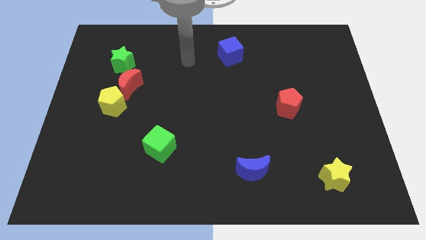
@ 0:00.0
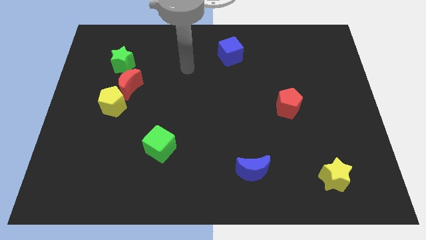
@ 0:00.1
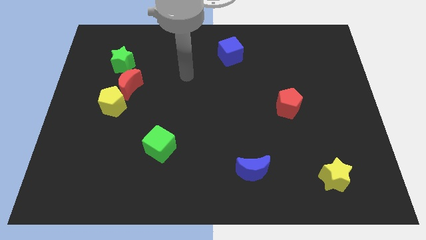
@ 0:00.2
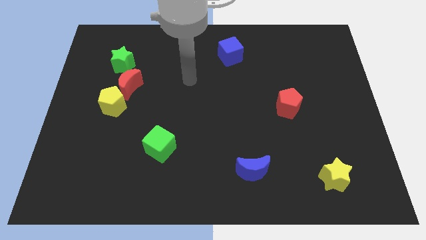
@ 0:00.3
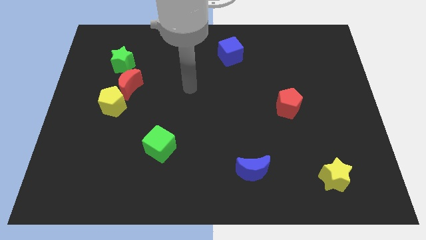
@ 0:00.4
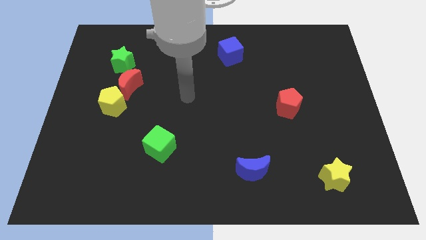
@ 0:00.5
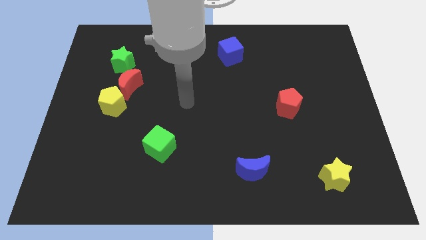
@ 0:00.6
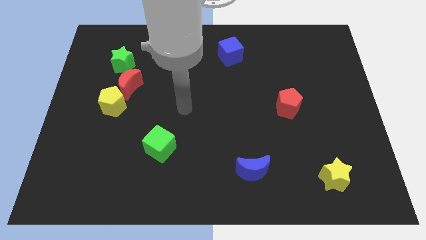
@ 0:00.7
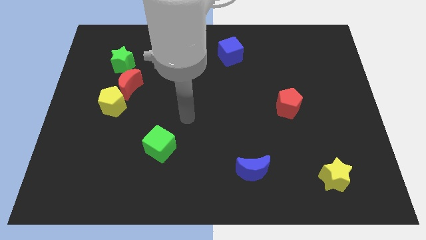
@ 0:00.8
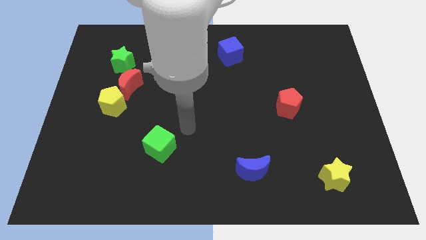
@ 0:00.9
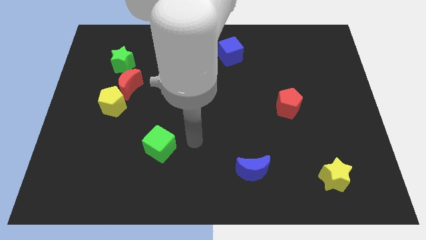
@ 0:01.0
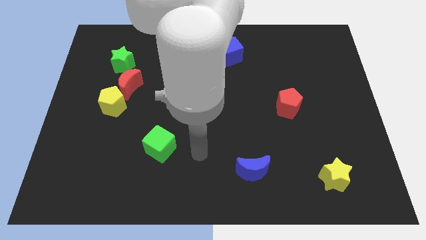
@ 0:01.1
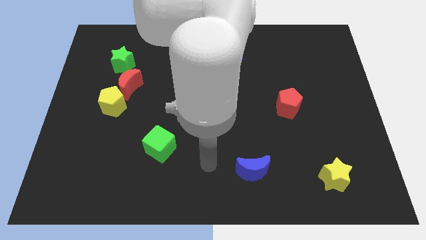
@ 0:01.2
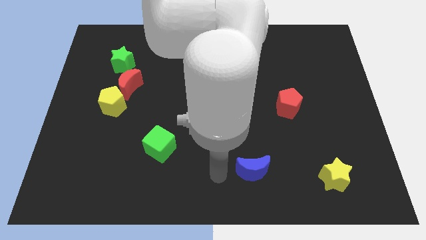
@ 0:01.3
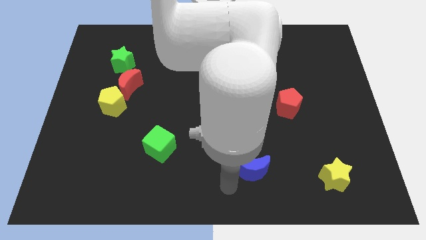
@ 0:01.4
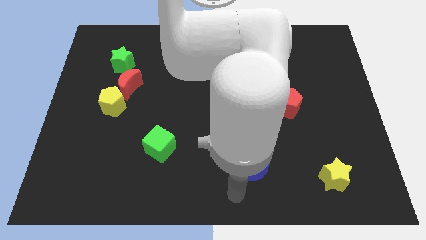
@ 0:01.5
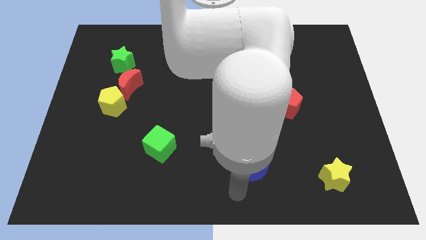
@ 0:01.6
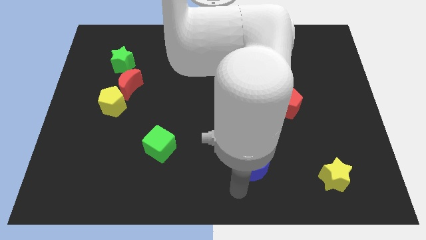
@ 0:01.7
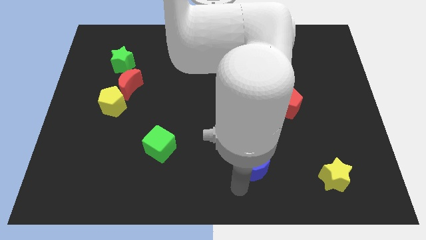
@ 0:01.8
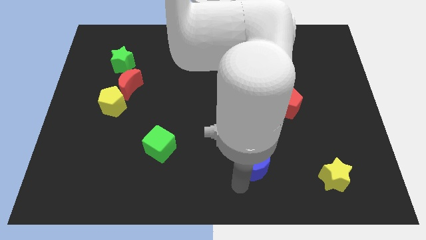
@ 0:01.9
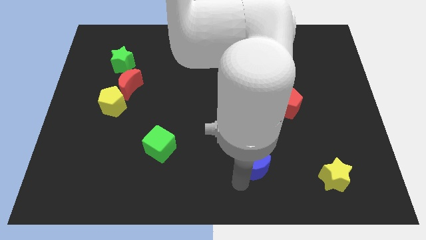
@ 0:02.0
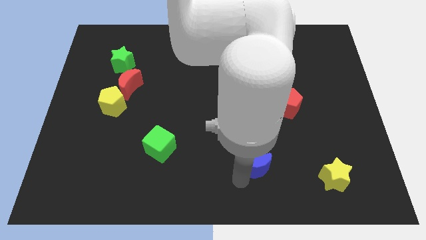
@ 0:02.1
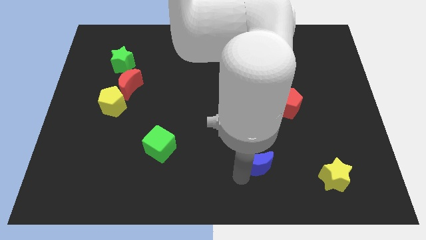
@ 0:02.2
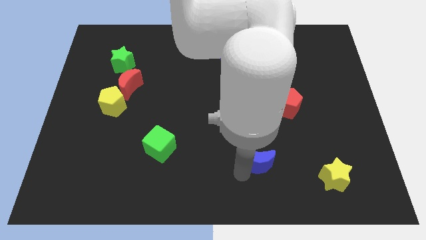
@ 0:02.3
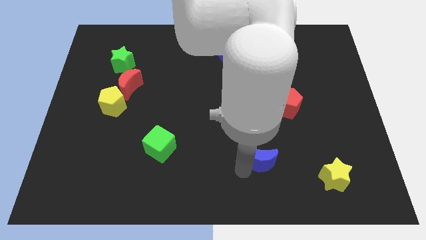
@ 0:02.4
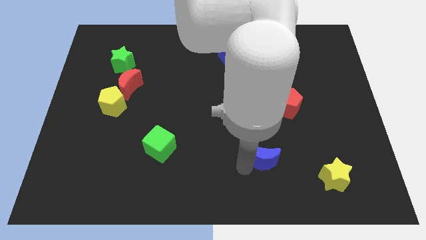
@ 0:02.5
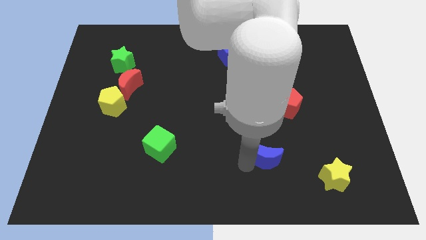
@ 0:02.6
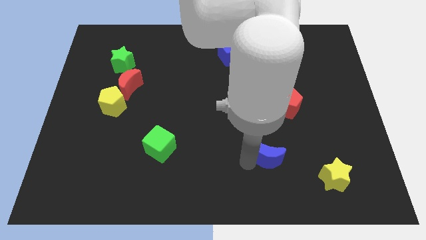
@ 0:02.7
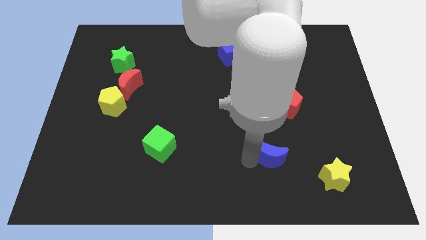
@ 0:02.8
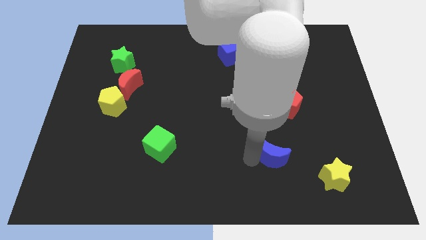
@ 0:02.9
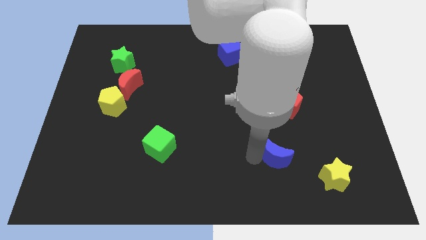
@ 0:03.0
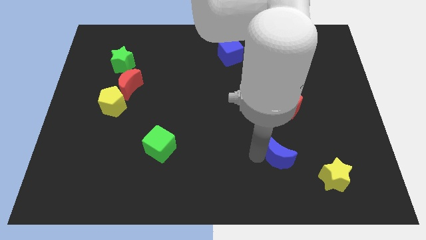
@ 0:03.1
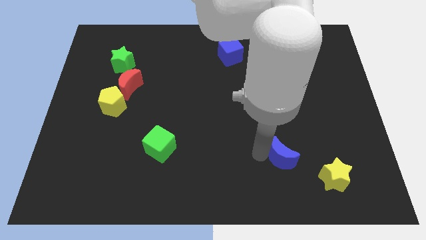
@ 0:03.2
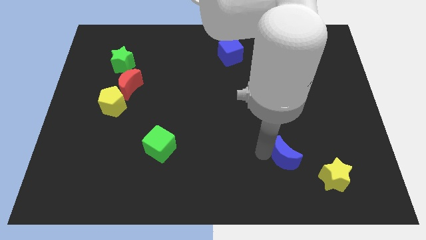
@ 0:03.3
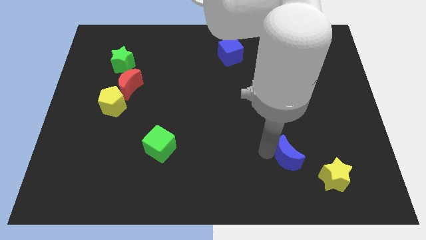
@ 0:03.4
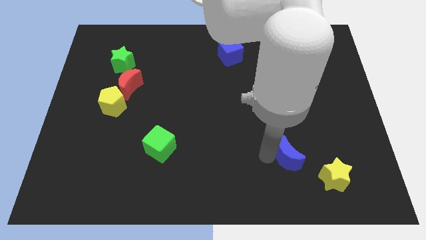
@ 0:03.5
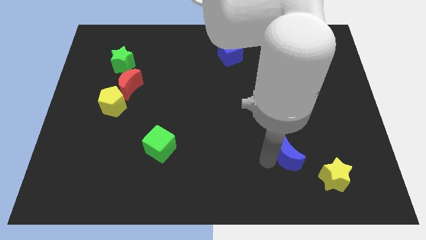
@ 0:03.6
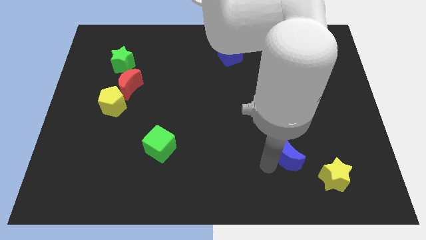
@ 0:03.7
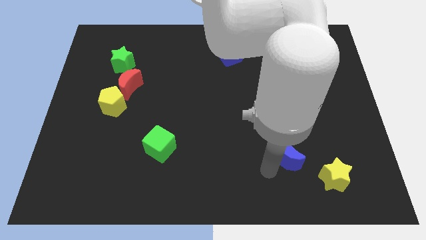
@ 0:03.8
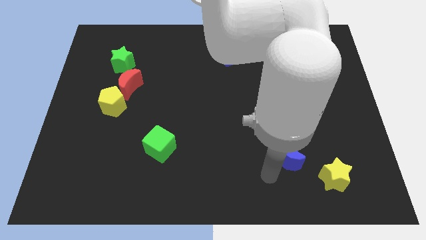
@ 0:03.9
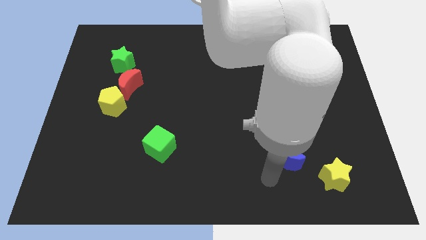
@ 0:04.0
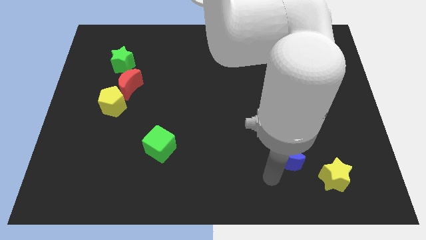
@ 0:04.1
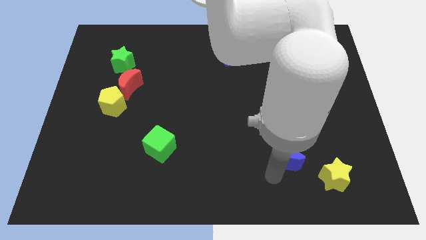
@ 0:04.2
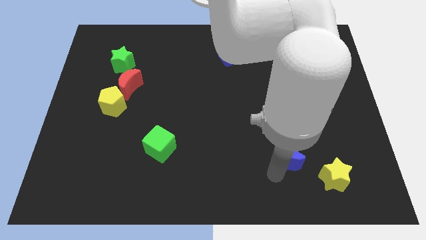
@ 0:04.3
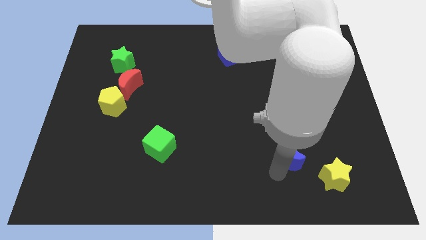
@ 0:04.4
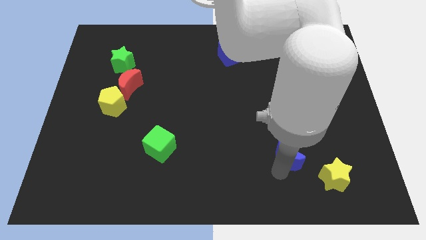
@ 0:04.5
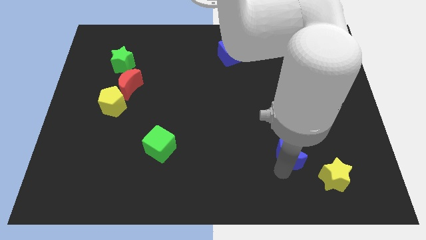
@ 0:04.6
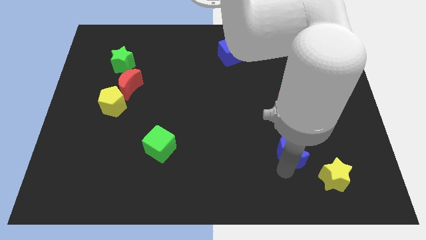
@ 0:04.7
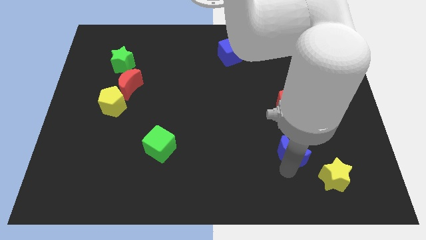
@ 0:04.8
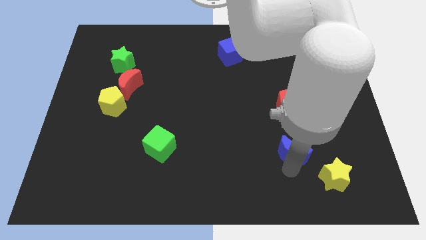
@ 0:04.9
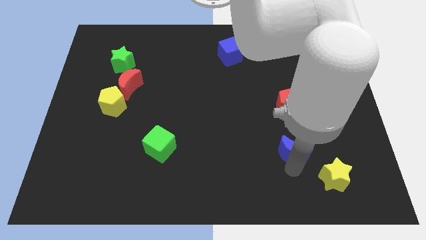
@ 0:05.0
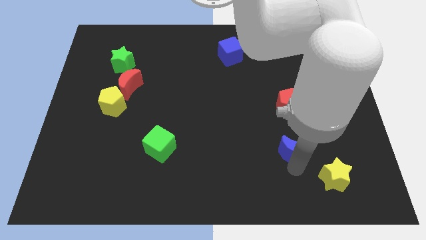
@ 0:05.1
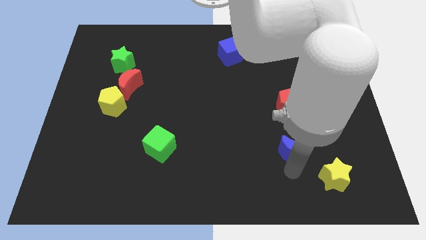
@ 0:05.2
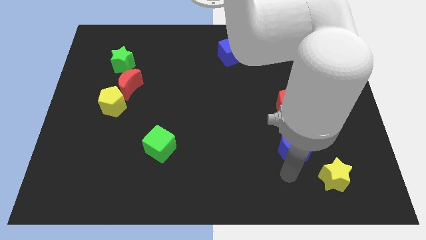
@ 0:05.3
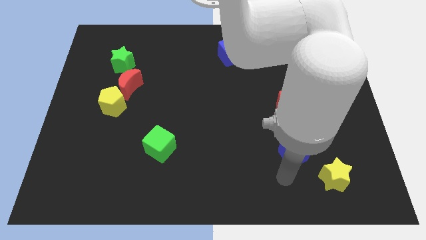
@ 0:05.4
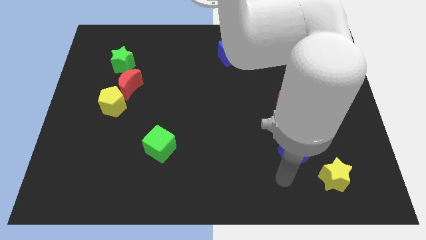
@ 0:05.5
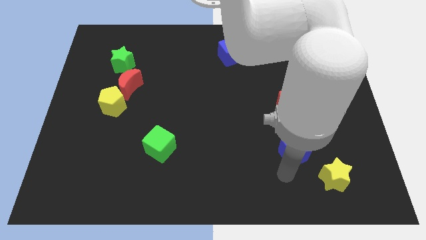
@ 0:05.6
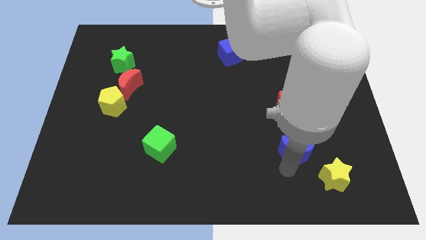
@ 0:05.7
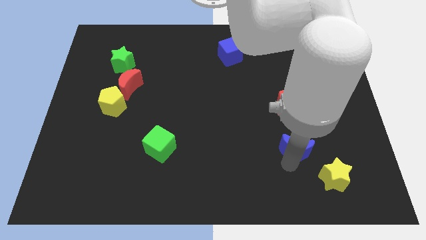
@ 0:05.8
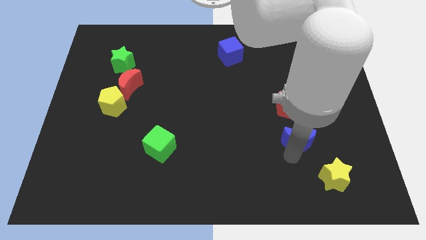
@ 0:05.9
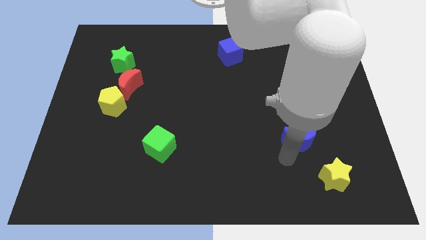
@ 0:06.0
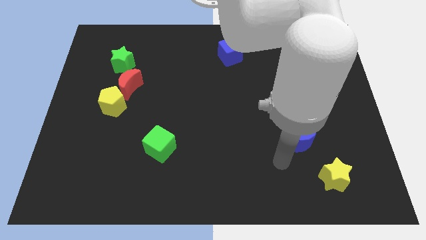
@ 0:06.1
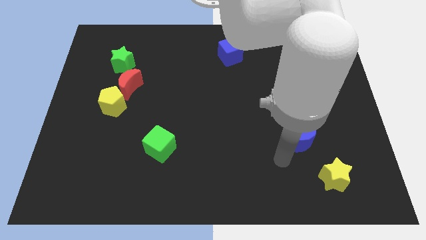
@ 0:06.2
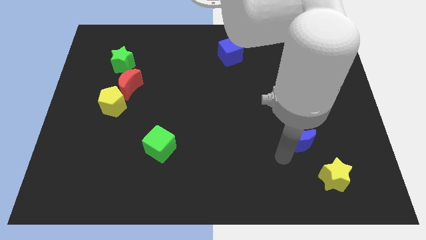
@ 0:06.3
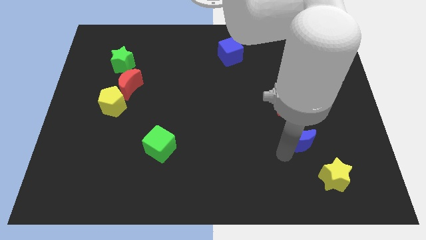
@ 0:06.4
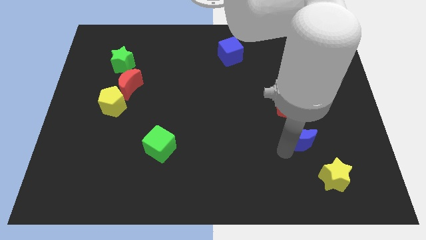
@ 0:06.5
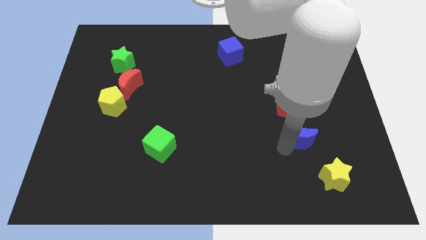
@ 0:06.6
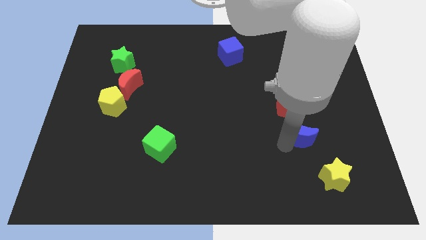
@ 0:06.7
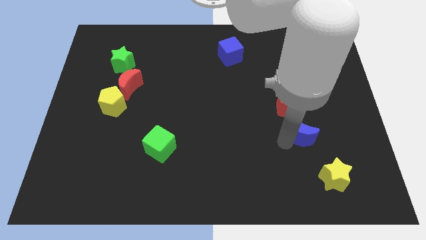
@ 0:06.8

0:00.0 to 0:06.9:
move the blue moon diagonally down and to the right of the red pentagon
